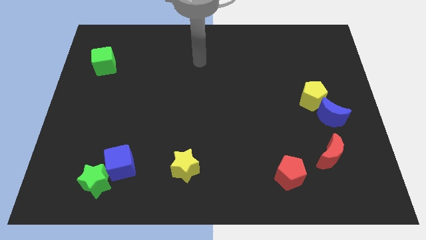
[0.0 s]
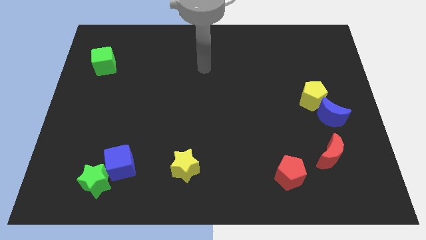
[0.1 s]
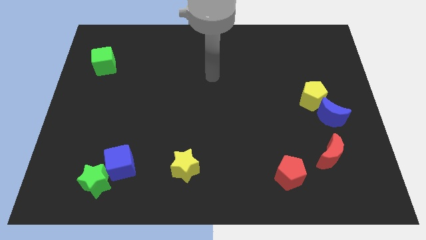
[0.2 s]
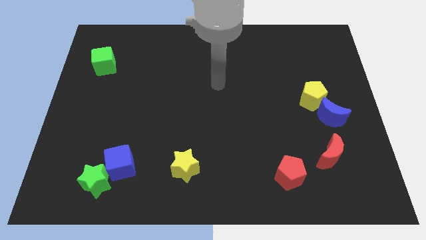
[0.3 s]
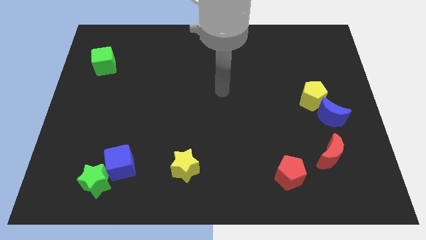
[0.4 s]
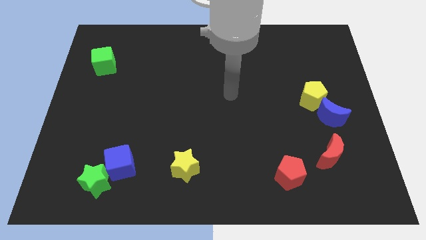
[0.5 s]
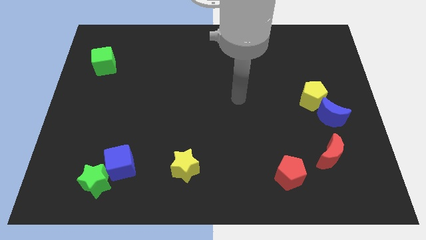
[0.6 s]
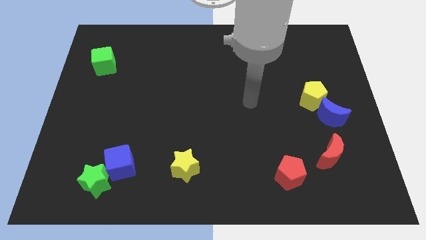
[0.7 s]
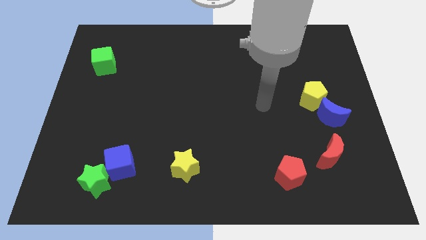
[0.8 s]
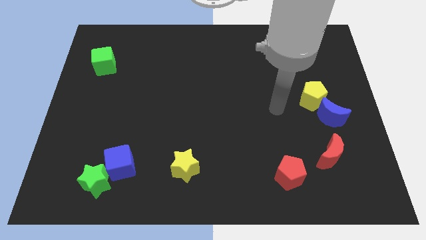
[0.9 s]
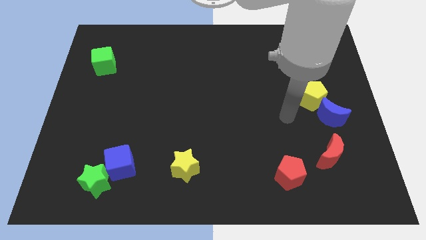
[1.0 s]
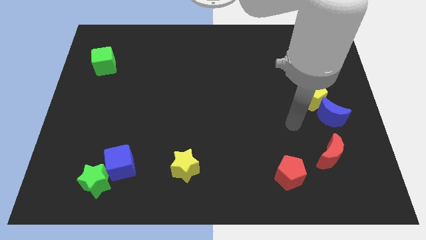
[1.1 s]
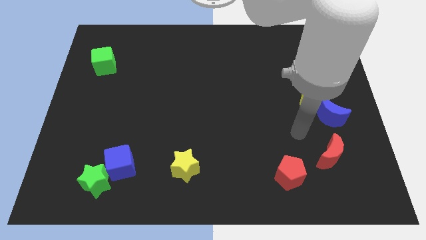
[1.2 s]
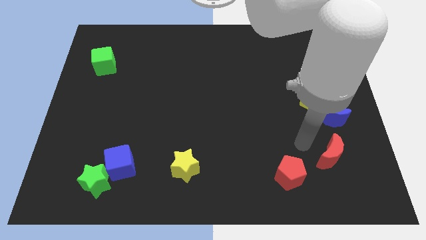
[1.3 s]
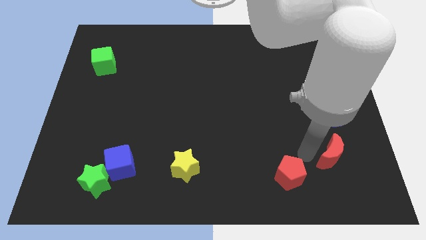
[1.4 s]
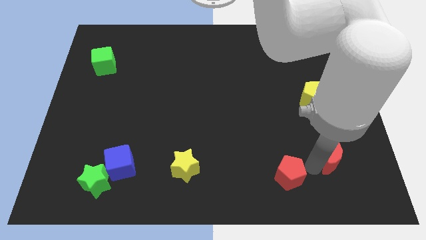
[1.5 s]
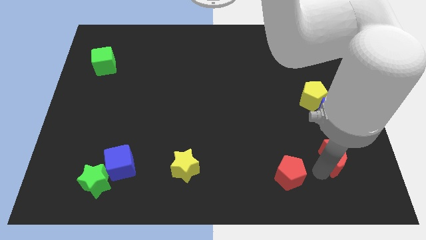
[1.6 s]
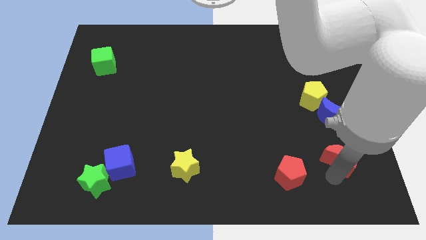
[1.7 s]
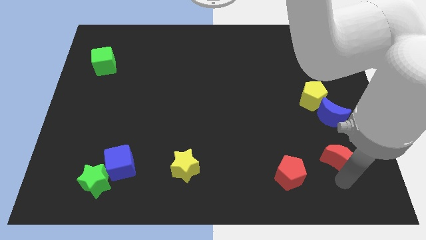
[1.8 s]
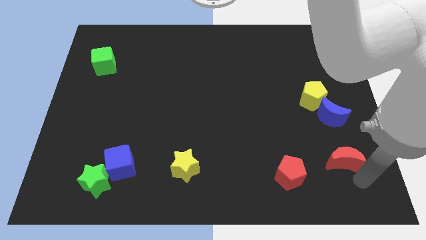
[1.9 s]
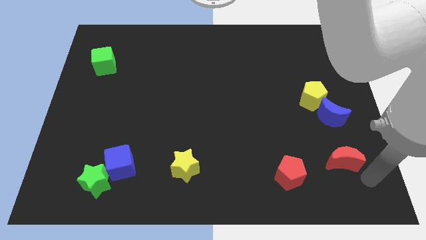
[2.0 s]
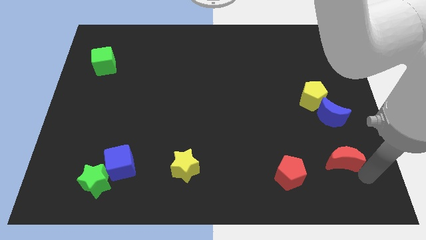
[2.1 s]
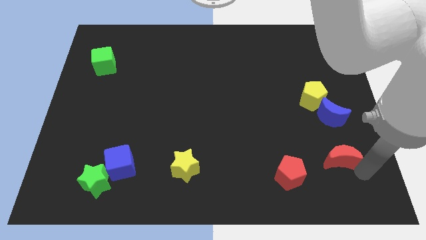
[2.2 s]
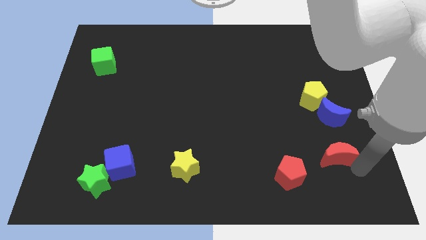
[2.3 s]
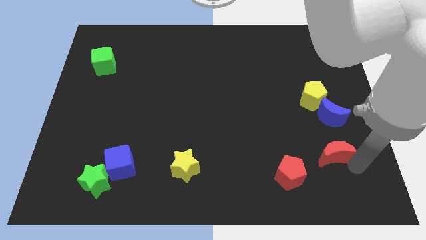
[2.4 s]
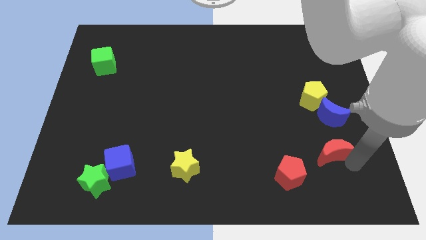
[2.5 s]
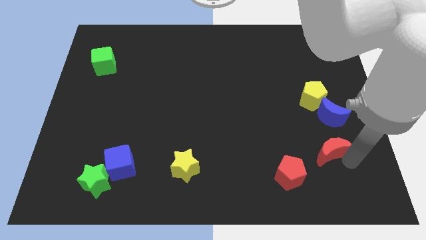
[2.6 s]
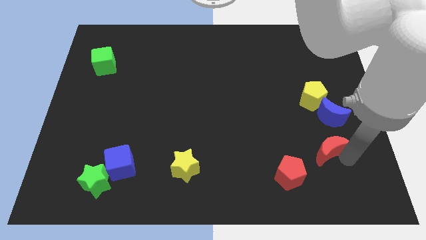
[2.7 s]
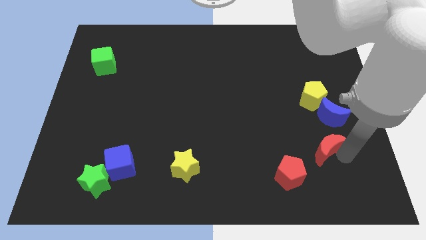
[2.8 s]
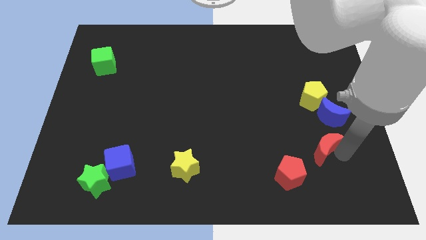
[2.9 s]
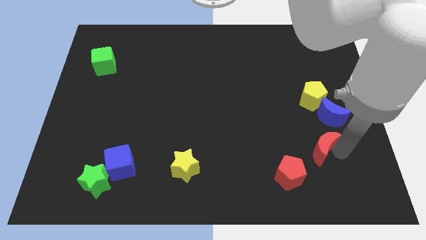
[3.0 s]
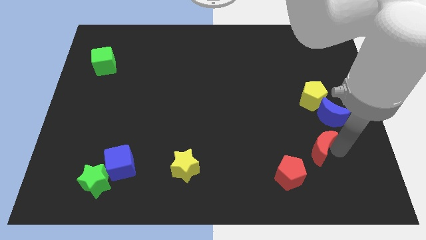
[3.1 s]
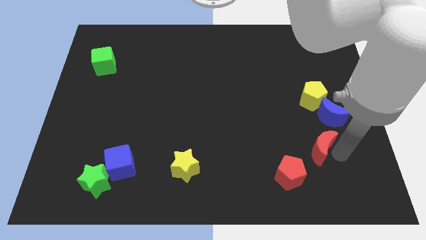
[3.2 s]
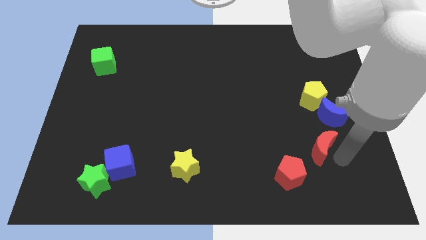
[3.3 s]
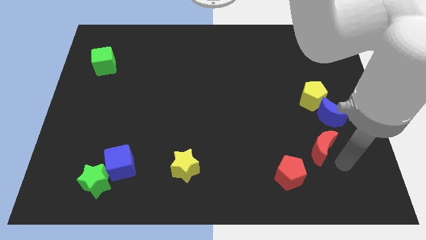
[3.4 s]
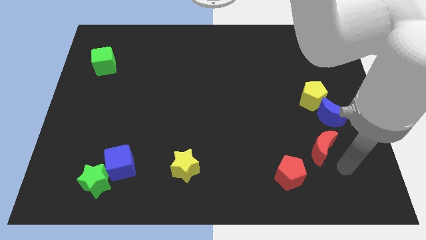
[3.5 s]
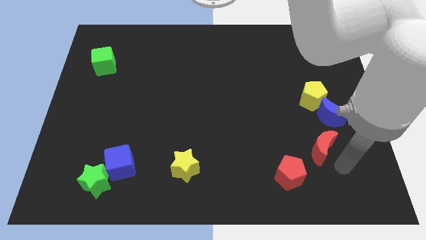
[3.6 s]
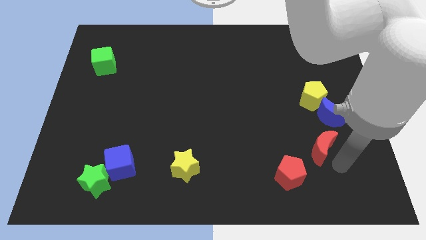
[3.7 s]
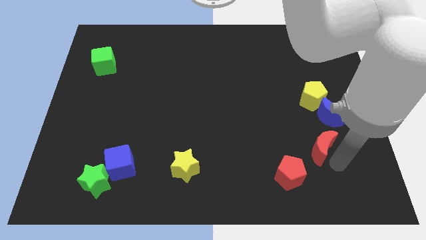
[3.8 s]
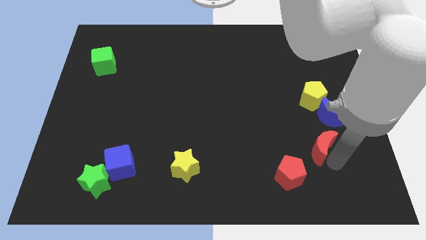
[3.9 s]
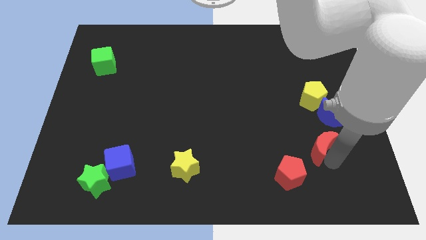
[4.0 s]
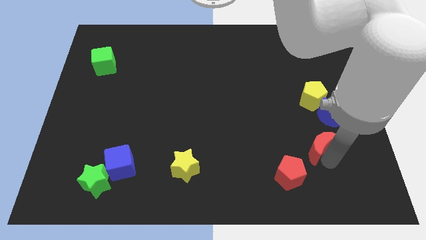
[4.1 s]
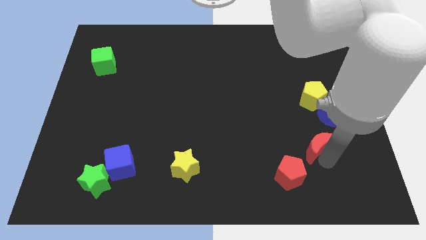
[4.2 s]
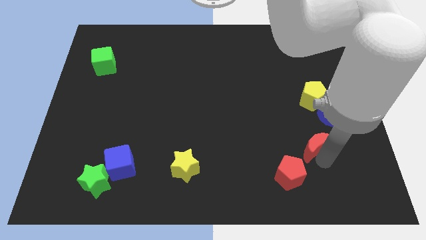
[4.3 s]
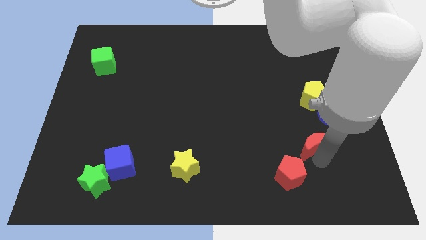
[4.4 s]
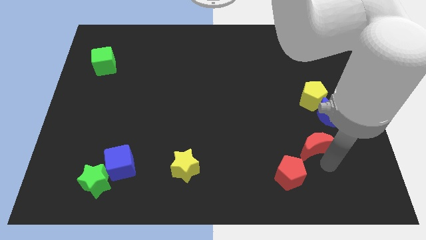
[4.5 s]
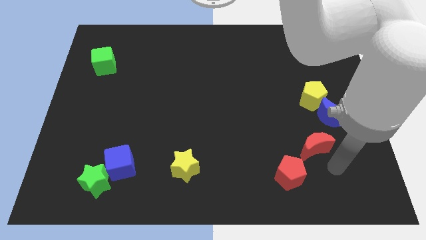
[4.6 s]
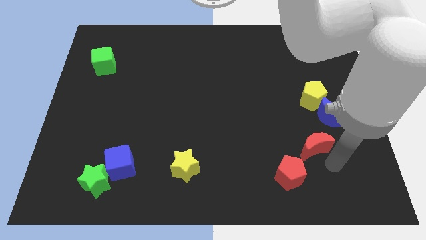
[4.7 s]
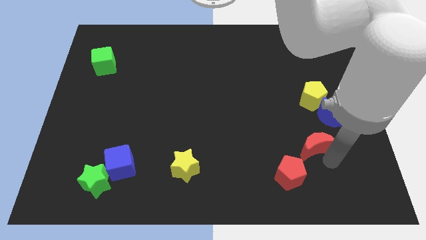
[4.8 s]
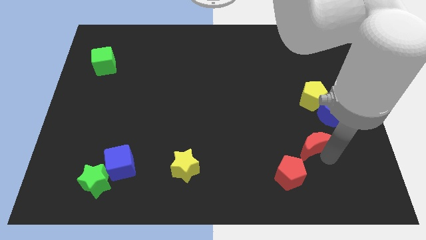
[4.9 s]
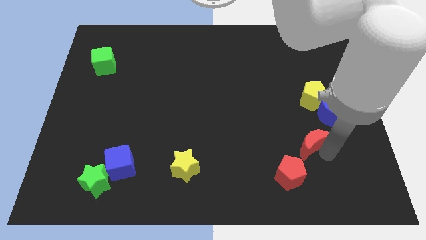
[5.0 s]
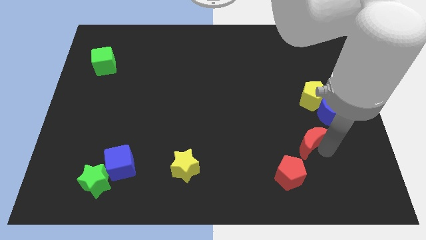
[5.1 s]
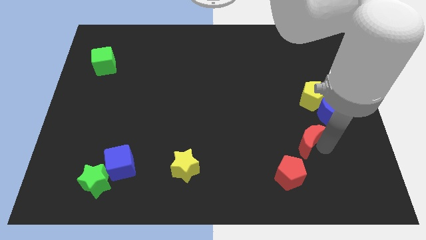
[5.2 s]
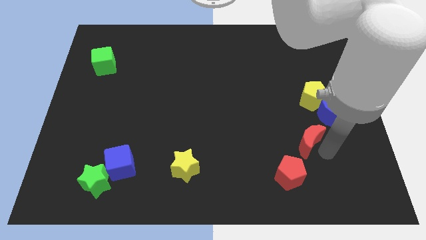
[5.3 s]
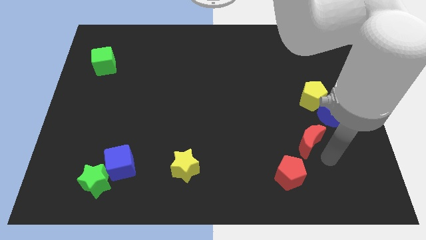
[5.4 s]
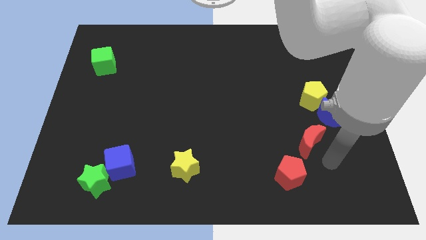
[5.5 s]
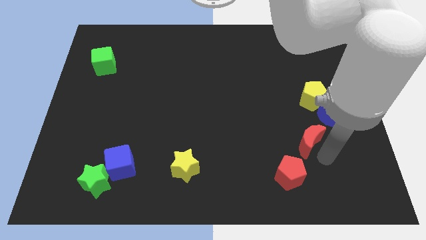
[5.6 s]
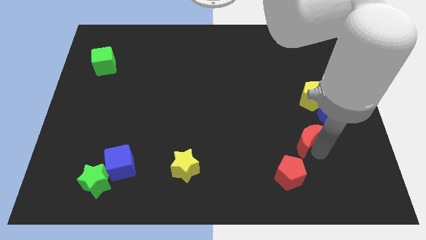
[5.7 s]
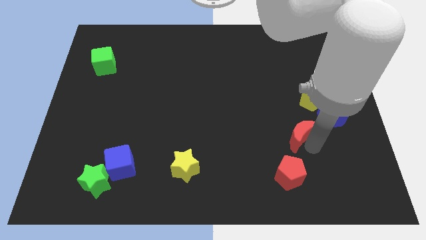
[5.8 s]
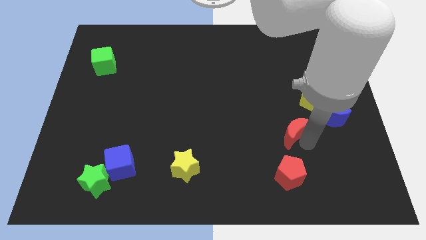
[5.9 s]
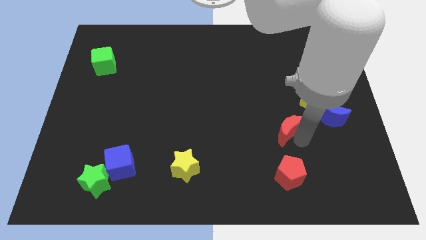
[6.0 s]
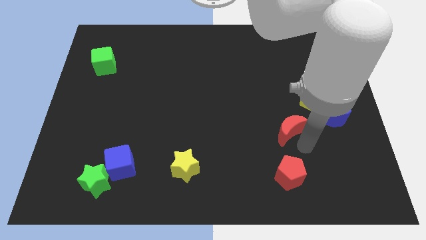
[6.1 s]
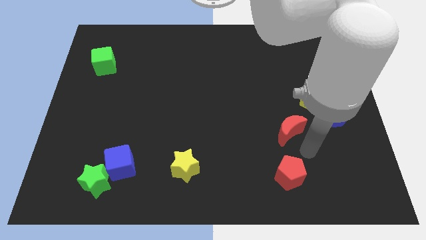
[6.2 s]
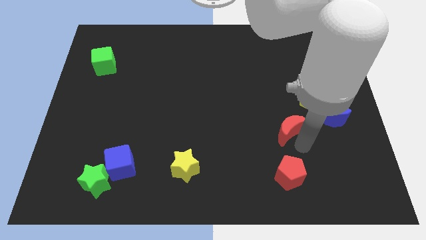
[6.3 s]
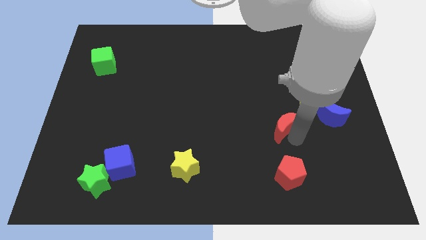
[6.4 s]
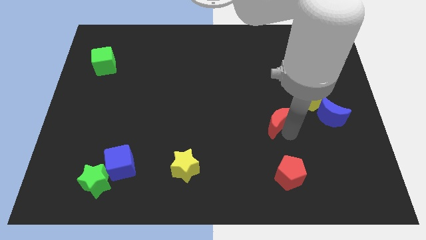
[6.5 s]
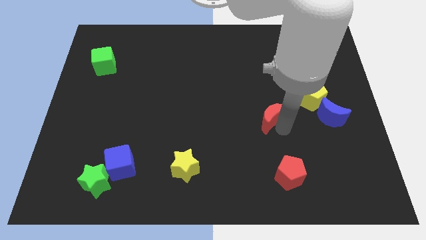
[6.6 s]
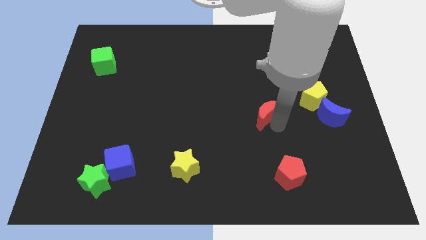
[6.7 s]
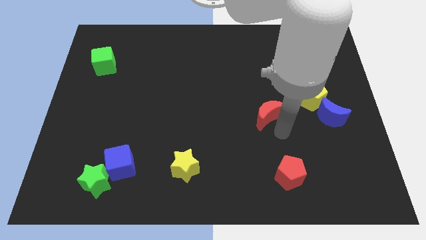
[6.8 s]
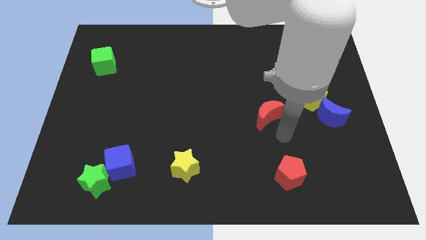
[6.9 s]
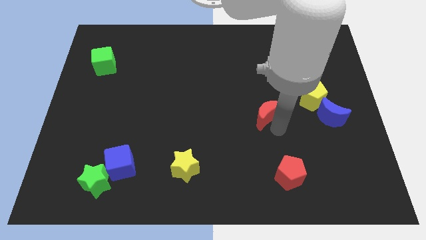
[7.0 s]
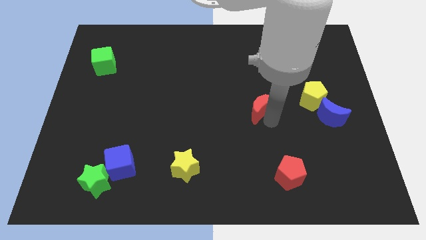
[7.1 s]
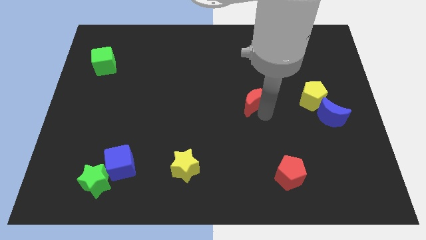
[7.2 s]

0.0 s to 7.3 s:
push the red moon up and left diagonally

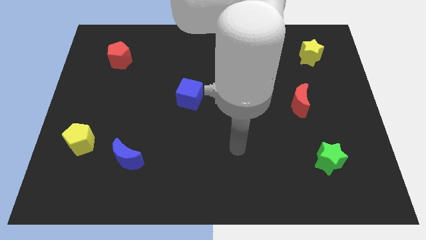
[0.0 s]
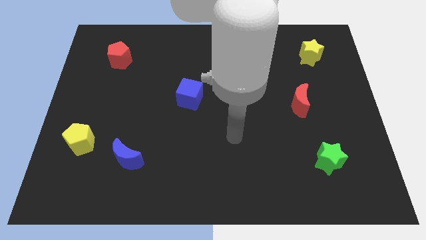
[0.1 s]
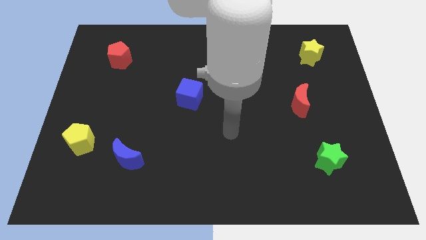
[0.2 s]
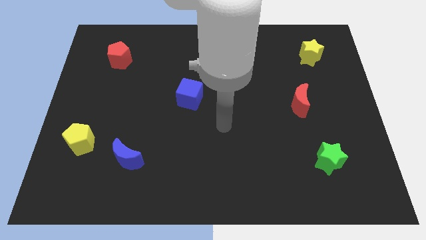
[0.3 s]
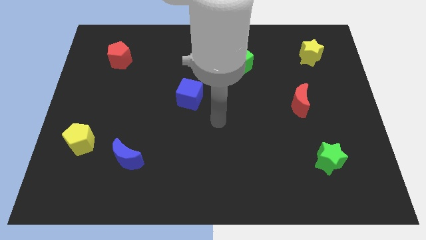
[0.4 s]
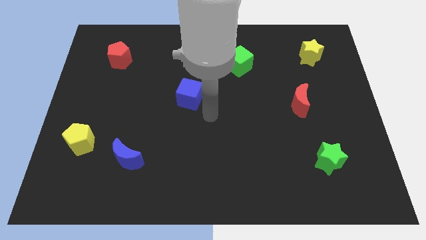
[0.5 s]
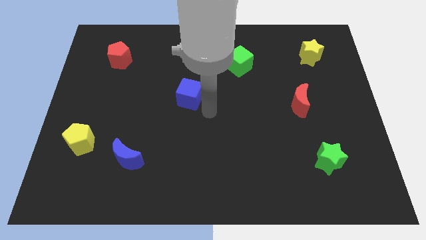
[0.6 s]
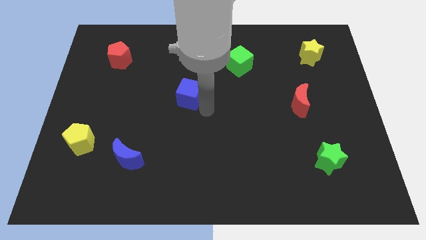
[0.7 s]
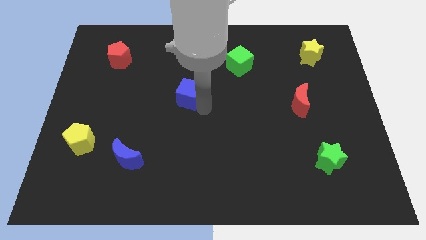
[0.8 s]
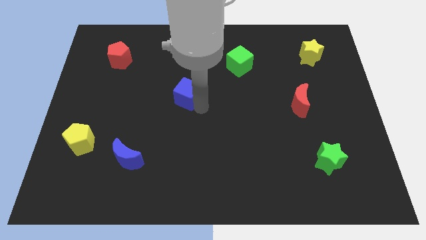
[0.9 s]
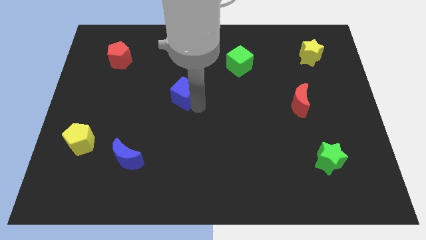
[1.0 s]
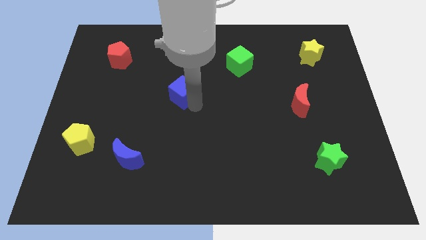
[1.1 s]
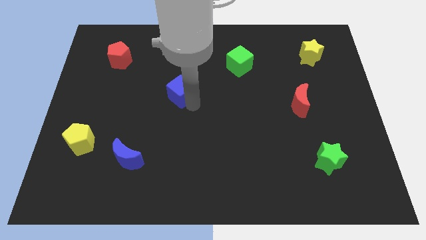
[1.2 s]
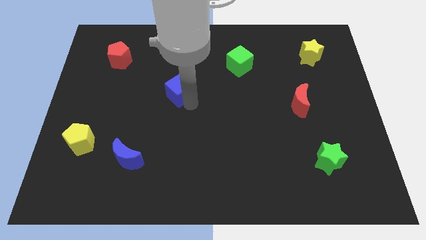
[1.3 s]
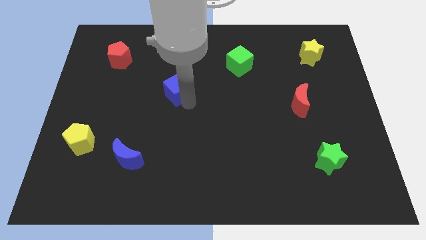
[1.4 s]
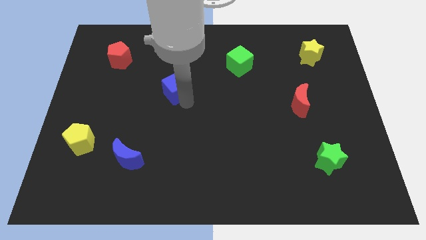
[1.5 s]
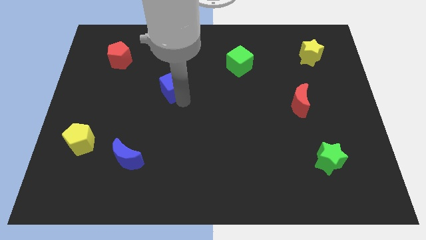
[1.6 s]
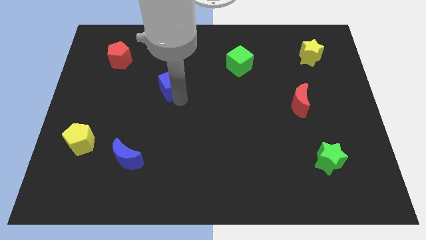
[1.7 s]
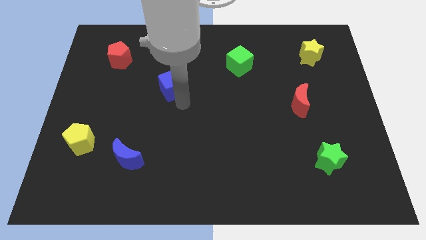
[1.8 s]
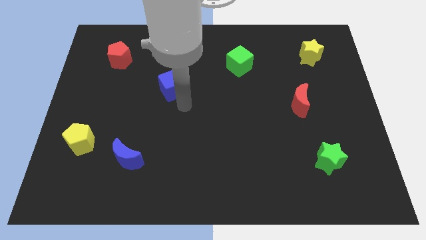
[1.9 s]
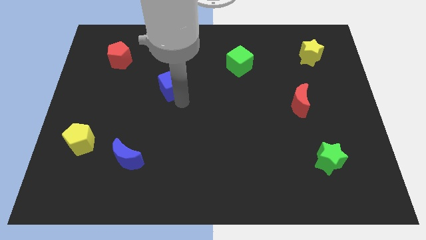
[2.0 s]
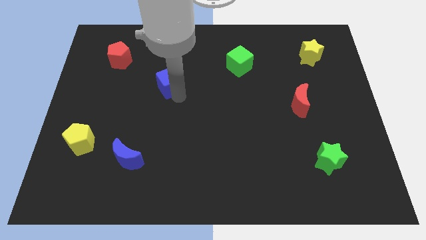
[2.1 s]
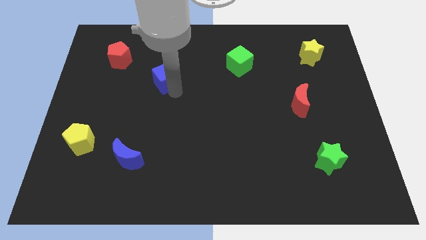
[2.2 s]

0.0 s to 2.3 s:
push the blue cube somewhat up and left
